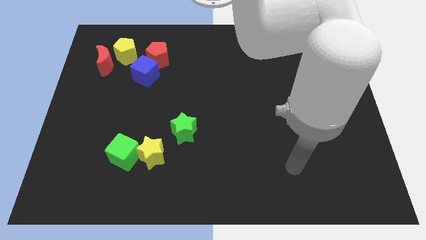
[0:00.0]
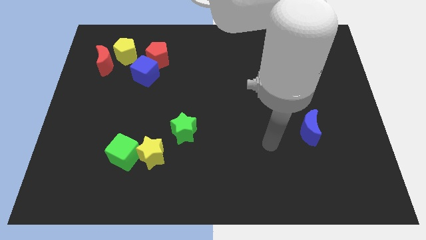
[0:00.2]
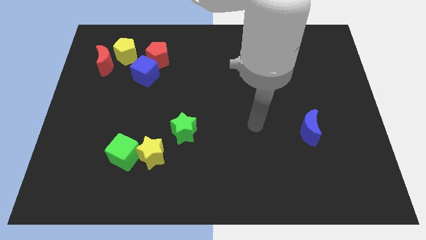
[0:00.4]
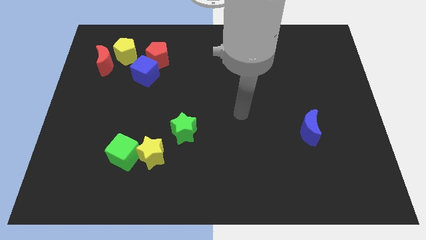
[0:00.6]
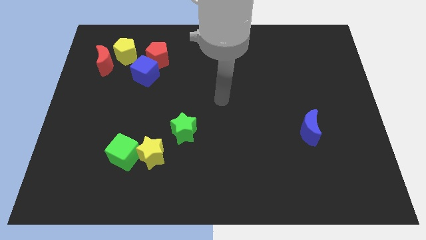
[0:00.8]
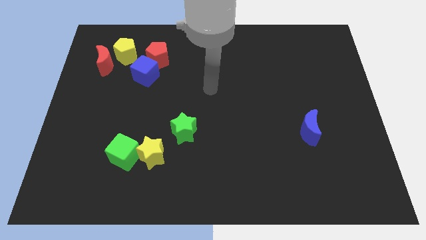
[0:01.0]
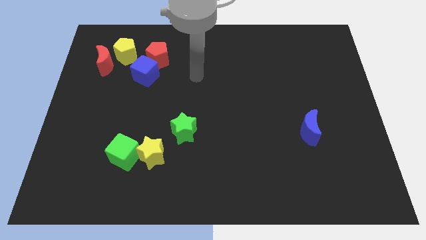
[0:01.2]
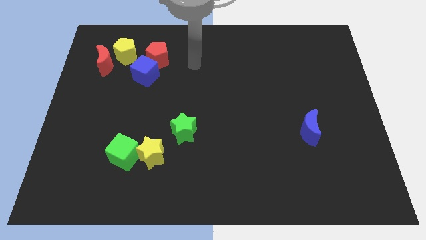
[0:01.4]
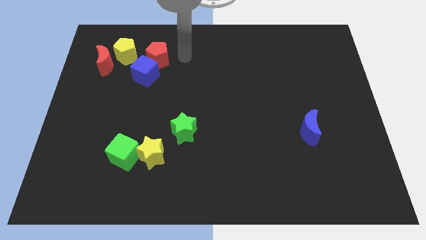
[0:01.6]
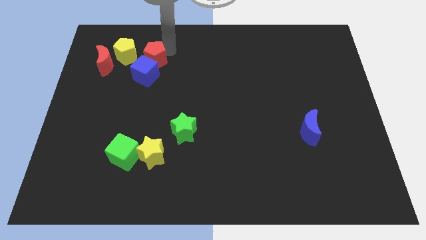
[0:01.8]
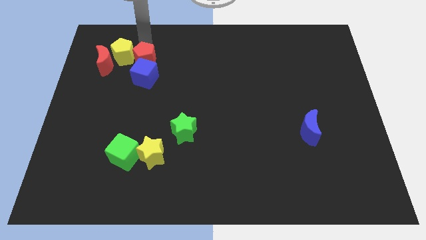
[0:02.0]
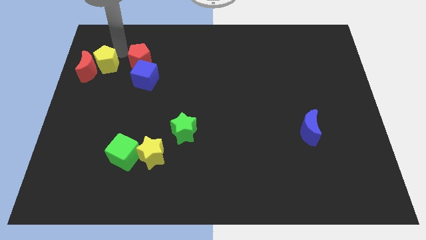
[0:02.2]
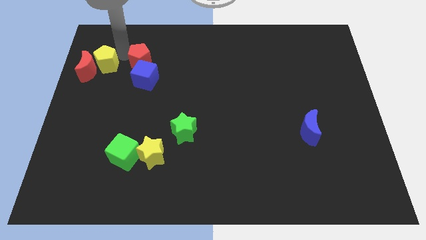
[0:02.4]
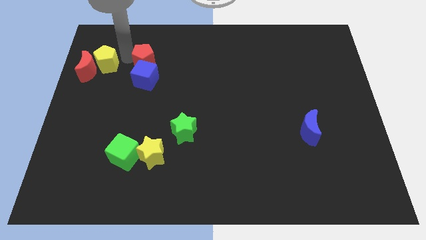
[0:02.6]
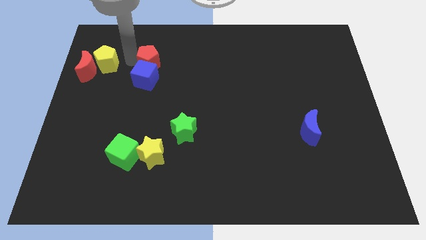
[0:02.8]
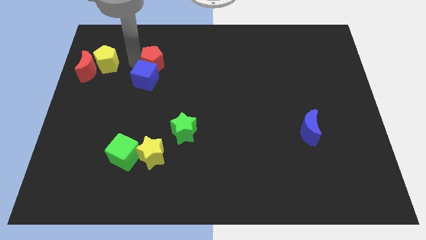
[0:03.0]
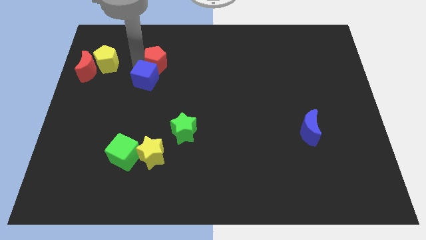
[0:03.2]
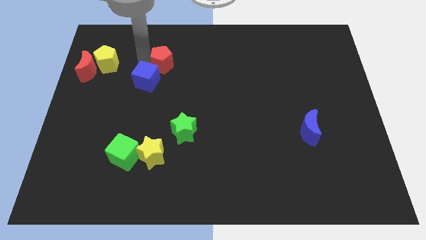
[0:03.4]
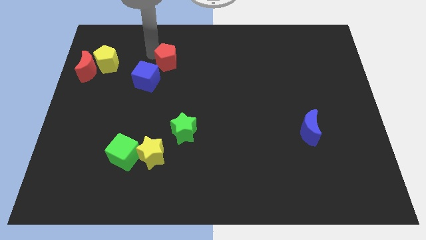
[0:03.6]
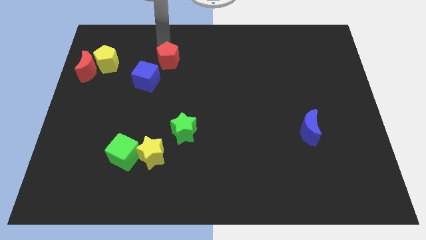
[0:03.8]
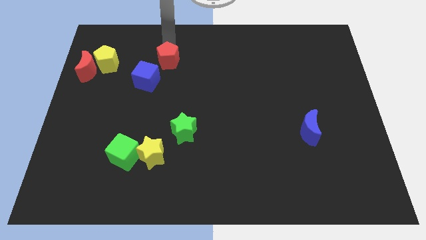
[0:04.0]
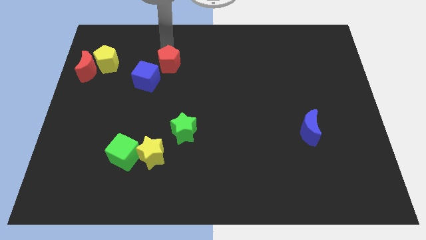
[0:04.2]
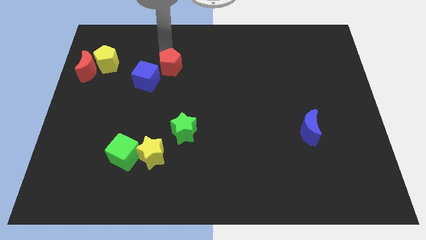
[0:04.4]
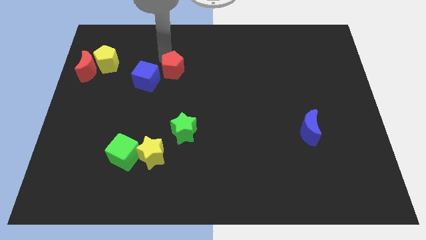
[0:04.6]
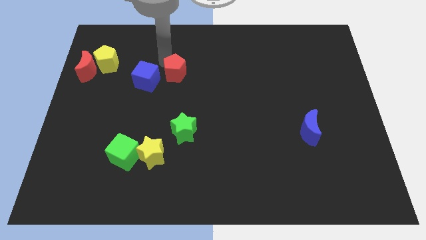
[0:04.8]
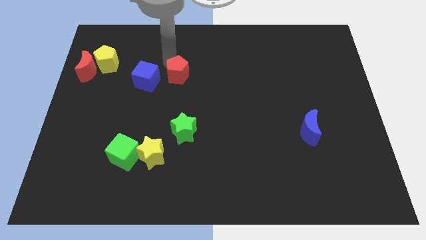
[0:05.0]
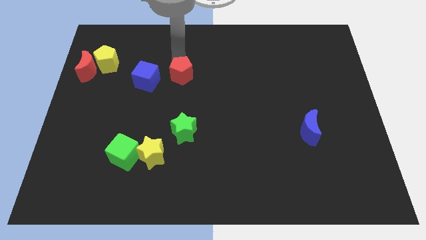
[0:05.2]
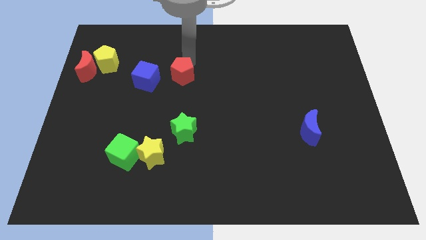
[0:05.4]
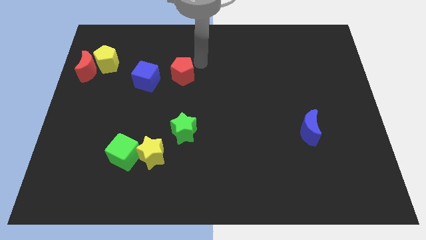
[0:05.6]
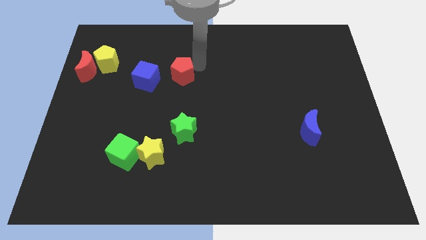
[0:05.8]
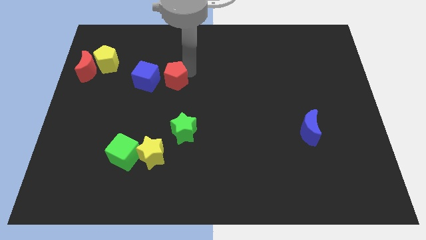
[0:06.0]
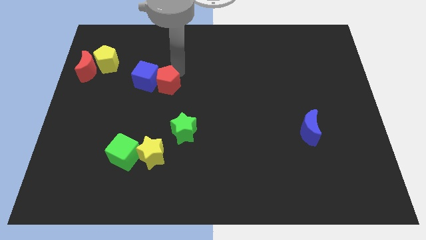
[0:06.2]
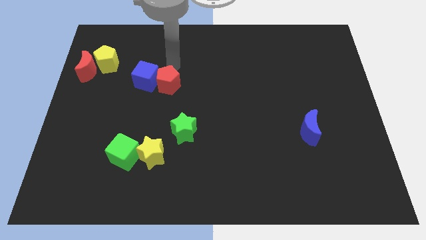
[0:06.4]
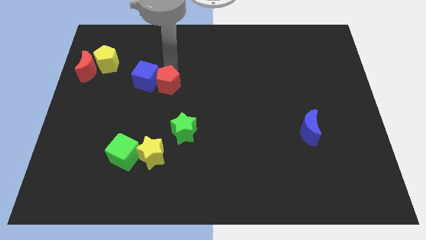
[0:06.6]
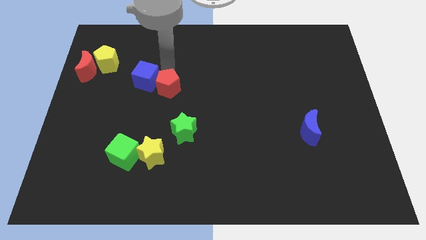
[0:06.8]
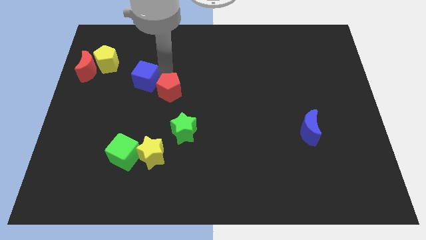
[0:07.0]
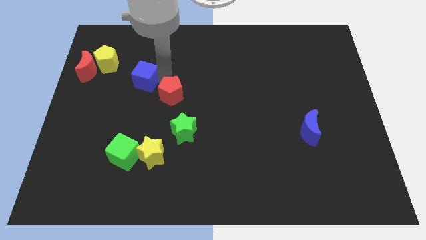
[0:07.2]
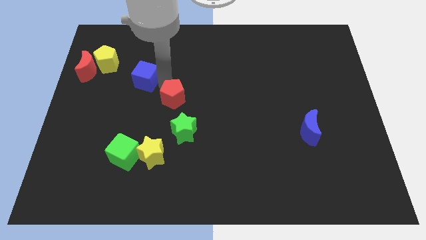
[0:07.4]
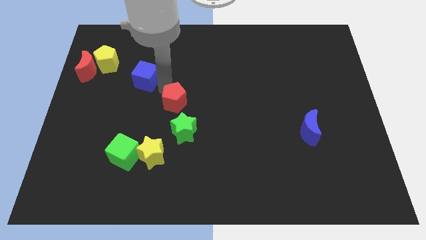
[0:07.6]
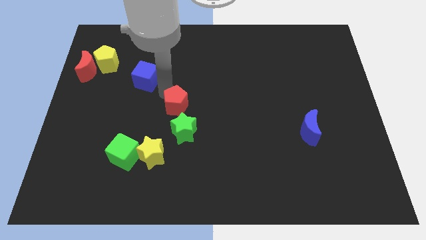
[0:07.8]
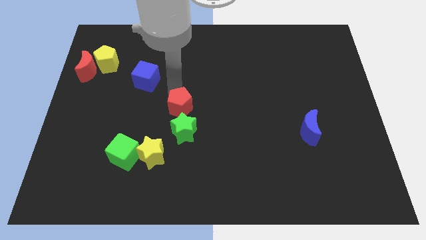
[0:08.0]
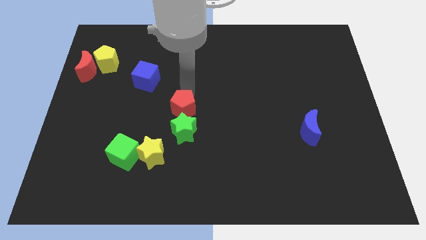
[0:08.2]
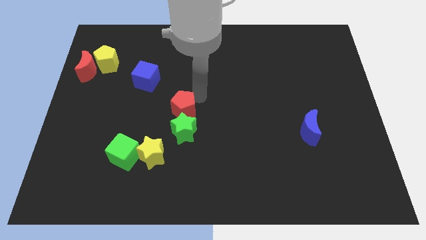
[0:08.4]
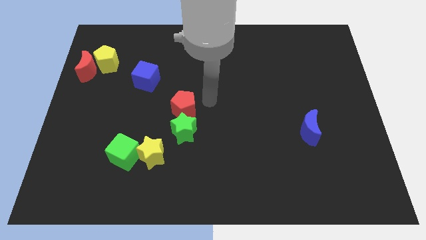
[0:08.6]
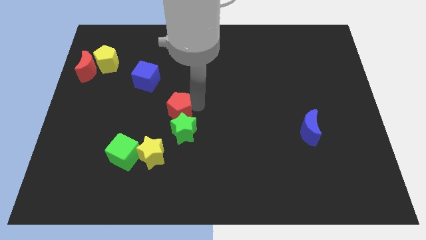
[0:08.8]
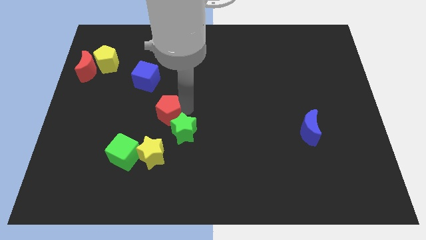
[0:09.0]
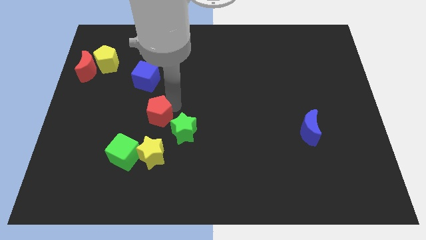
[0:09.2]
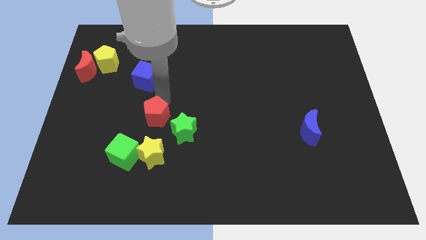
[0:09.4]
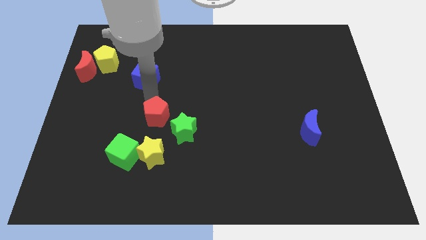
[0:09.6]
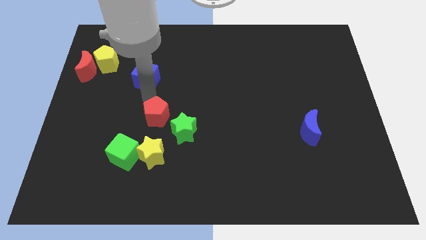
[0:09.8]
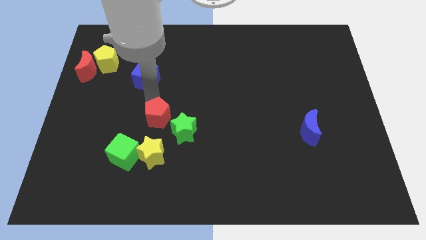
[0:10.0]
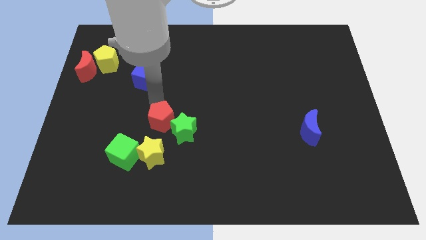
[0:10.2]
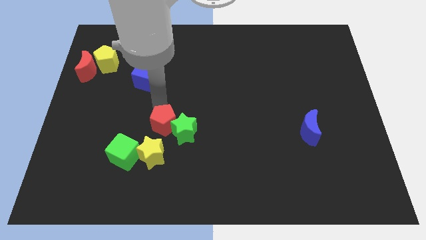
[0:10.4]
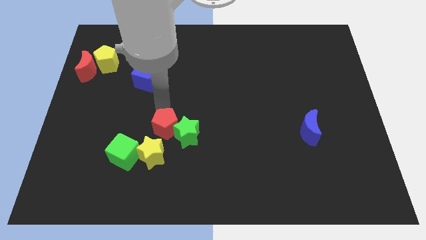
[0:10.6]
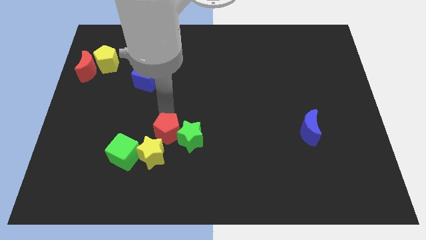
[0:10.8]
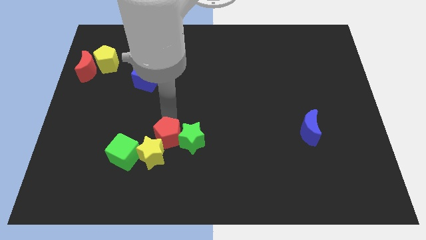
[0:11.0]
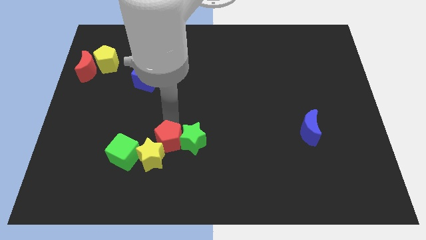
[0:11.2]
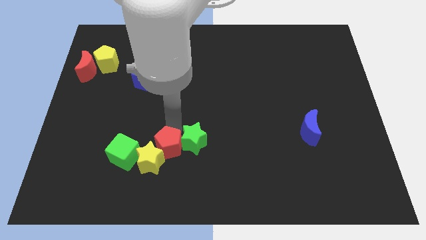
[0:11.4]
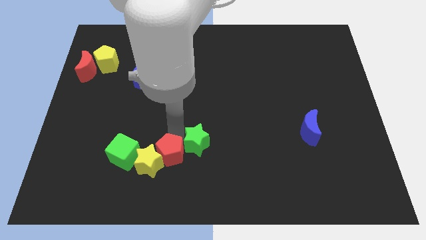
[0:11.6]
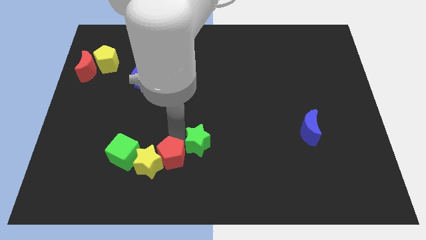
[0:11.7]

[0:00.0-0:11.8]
slide the red pentagon diagonally down and to the right of the yellow star

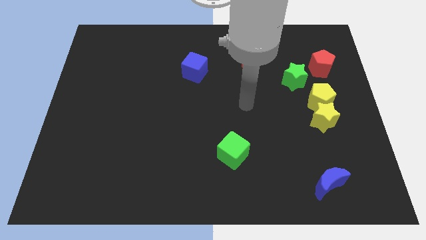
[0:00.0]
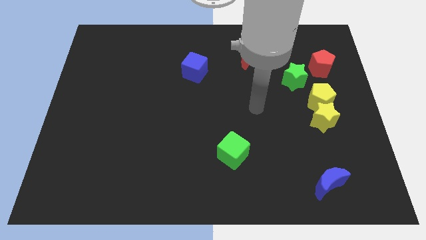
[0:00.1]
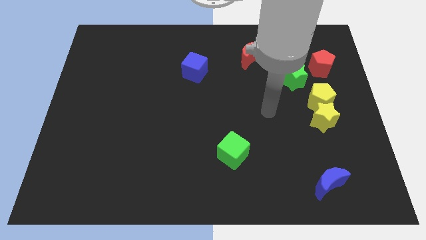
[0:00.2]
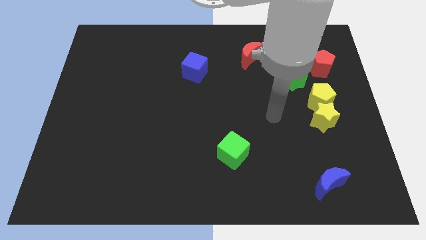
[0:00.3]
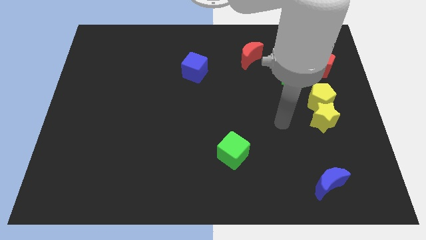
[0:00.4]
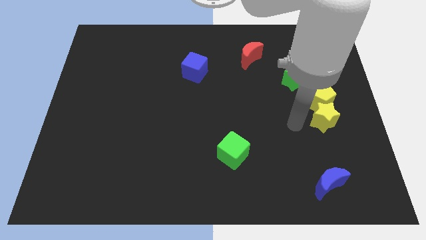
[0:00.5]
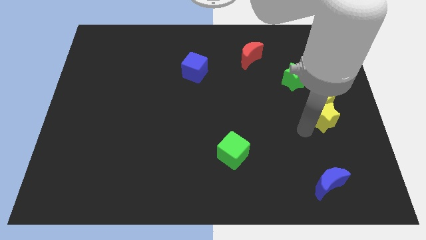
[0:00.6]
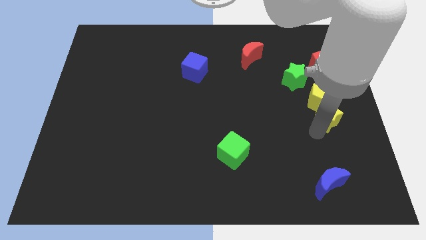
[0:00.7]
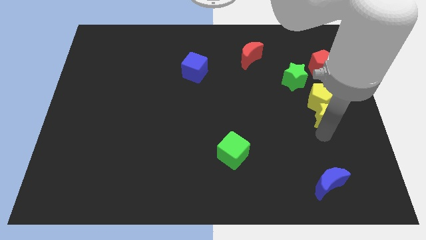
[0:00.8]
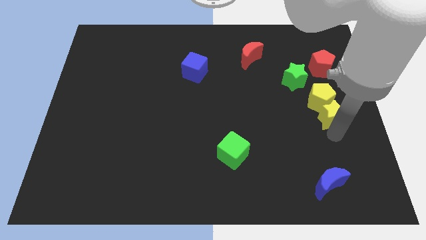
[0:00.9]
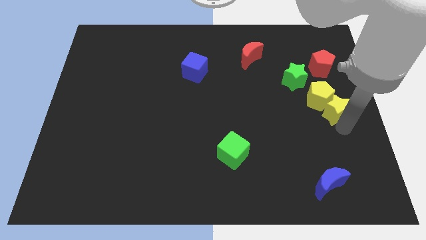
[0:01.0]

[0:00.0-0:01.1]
put the yellow pentagon to the left side of the yellow star
